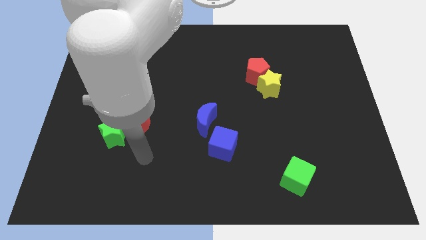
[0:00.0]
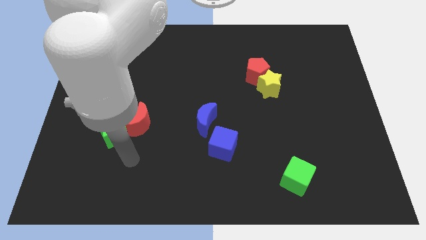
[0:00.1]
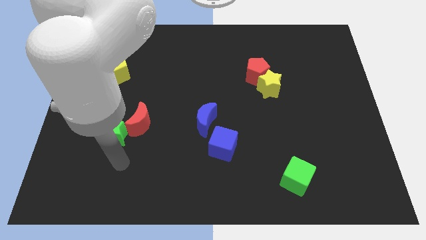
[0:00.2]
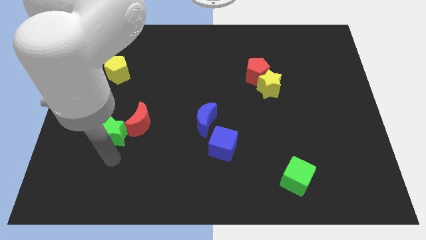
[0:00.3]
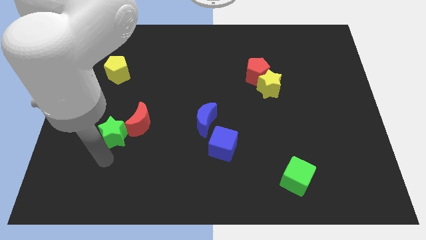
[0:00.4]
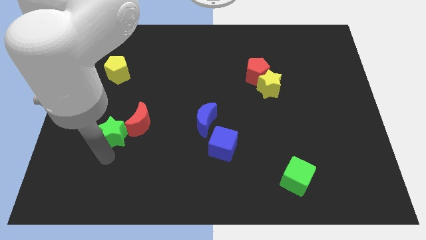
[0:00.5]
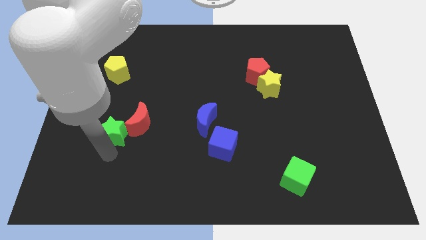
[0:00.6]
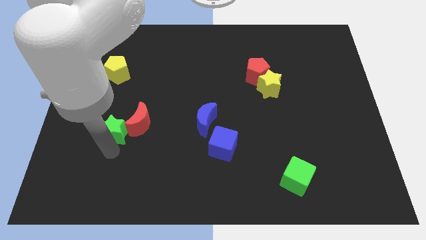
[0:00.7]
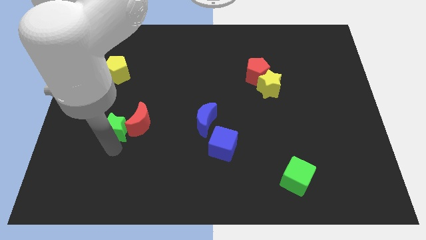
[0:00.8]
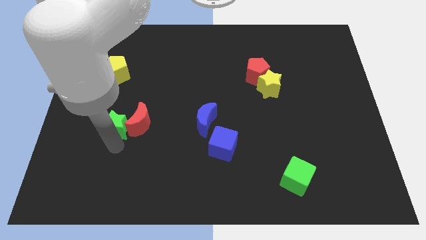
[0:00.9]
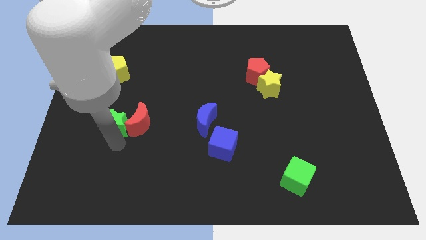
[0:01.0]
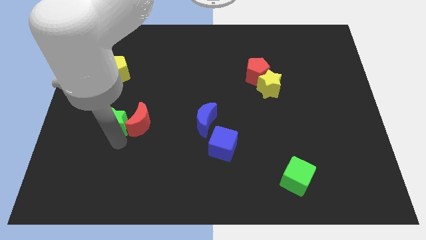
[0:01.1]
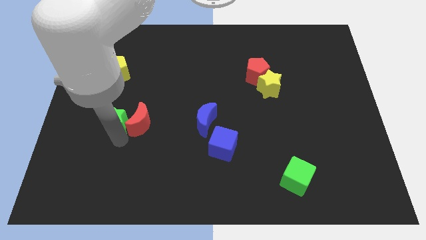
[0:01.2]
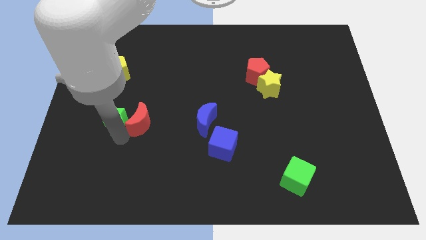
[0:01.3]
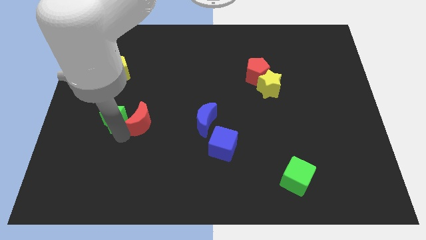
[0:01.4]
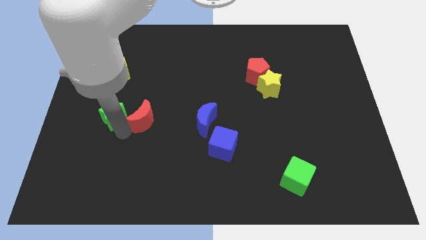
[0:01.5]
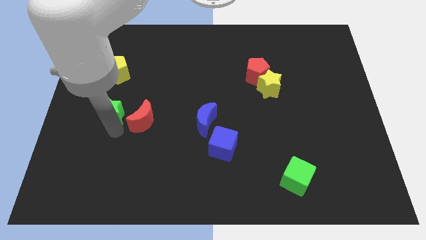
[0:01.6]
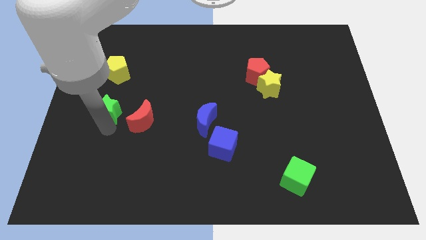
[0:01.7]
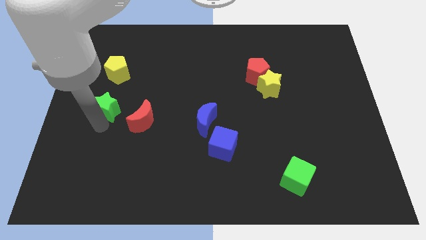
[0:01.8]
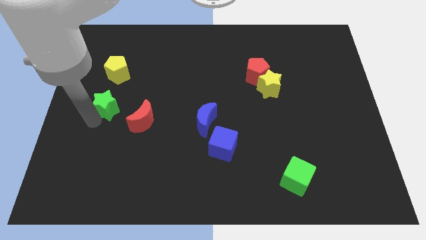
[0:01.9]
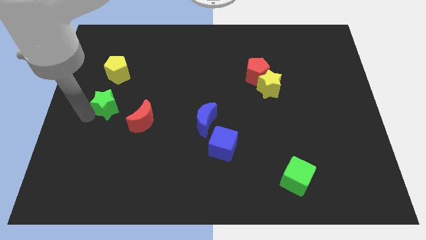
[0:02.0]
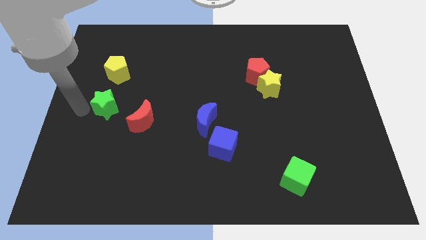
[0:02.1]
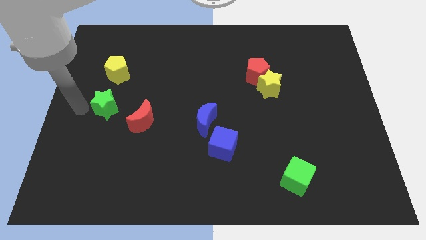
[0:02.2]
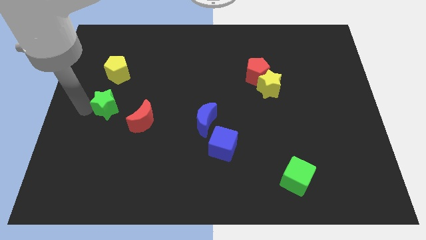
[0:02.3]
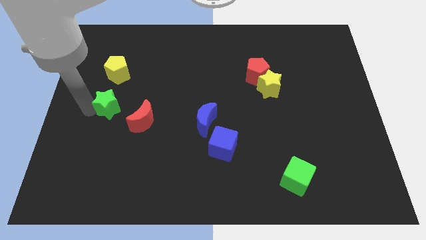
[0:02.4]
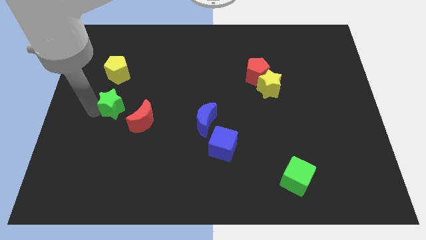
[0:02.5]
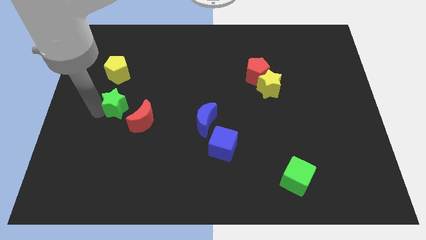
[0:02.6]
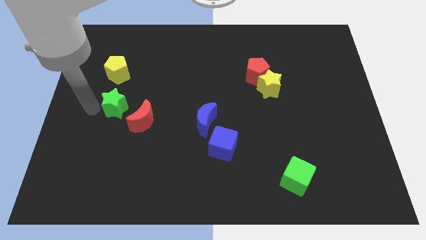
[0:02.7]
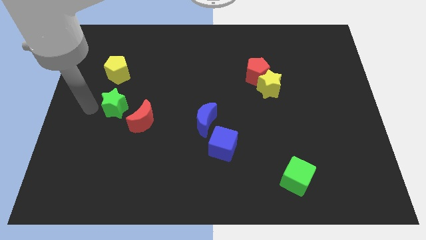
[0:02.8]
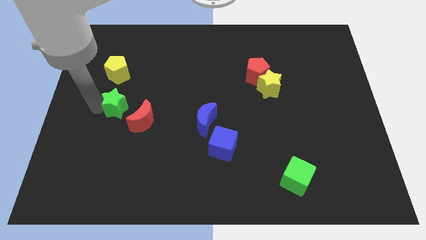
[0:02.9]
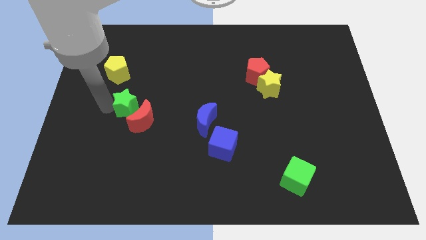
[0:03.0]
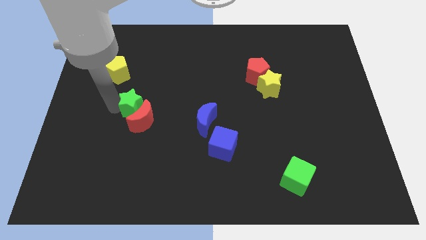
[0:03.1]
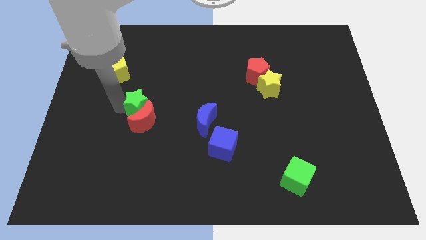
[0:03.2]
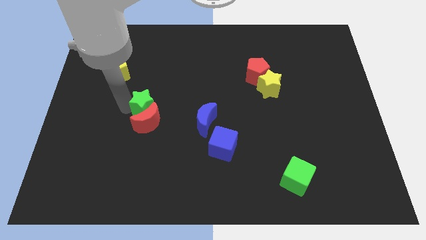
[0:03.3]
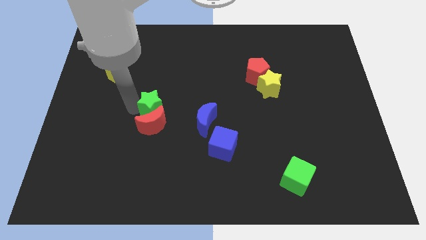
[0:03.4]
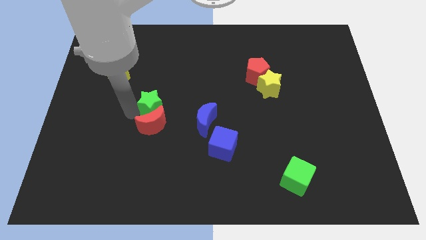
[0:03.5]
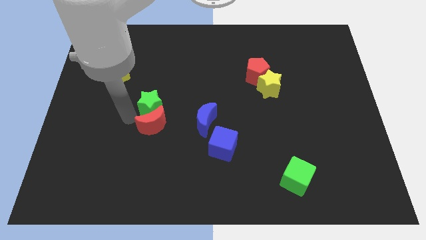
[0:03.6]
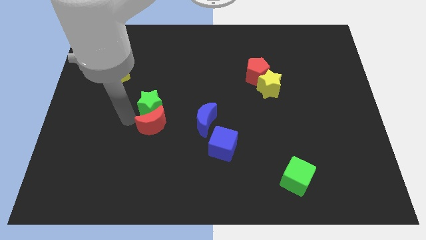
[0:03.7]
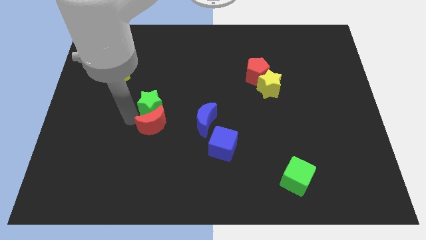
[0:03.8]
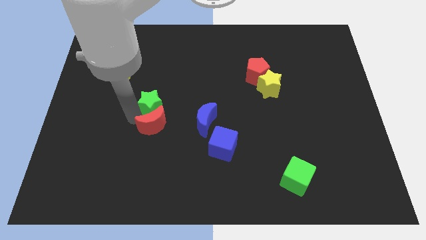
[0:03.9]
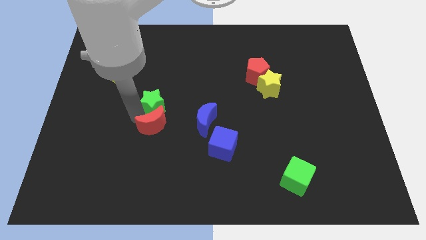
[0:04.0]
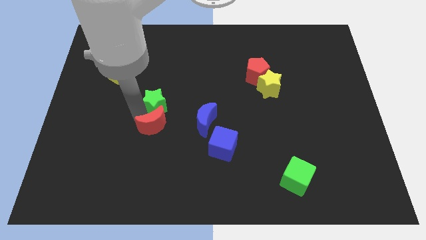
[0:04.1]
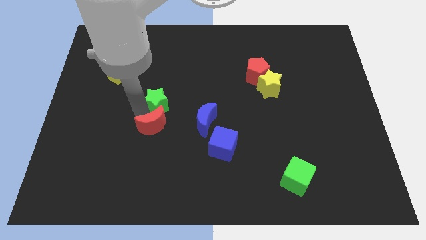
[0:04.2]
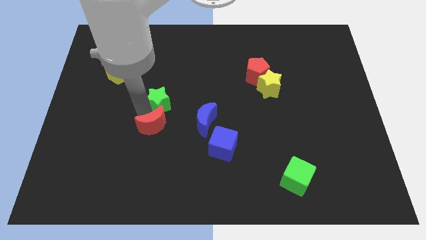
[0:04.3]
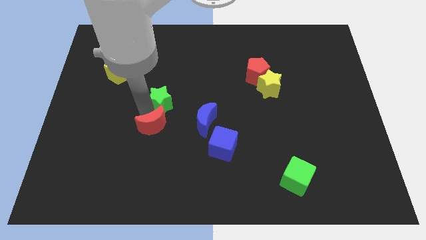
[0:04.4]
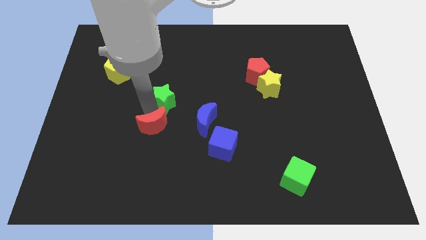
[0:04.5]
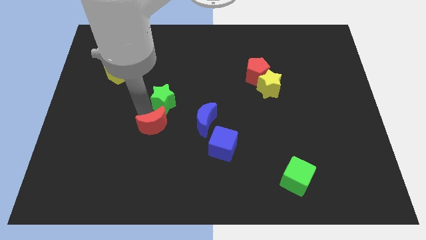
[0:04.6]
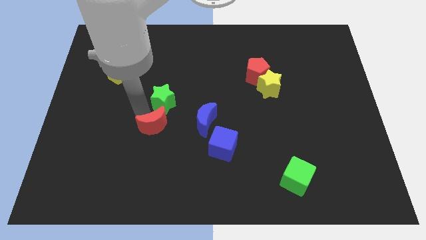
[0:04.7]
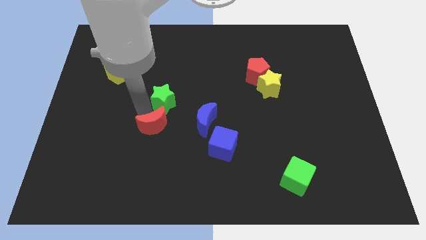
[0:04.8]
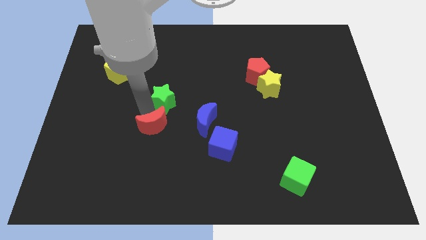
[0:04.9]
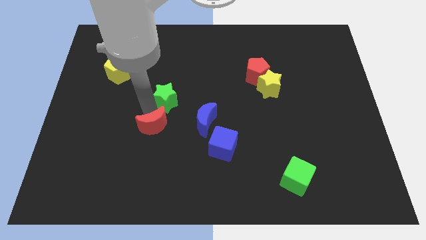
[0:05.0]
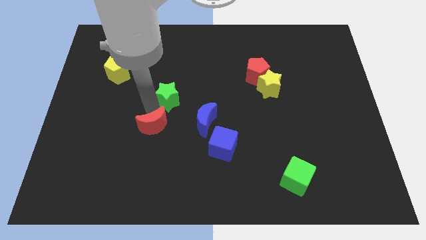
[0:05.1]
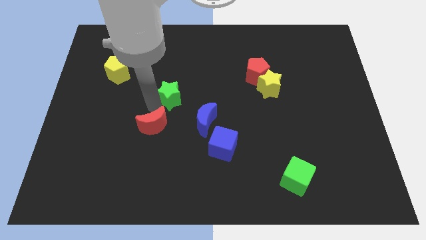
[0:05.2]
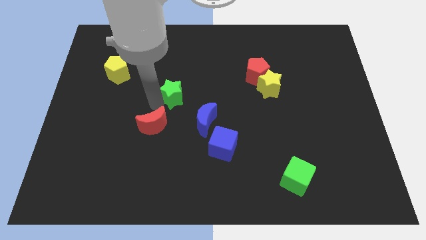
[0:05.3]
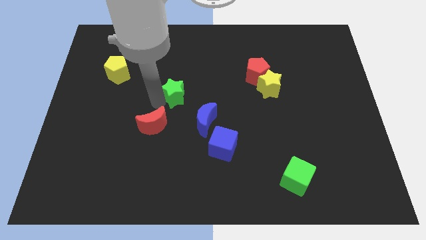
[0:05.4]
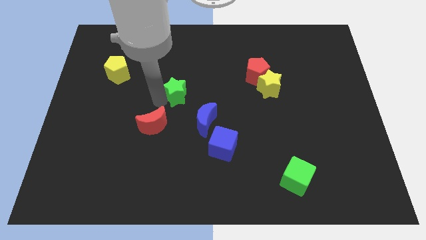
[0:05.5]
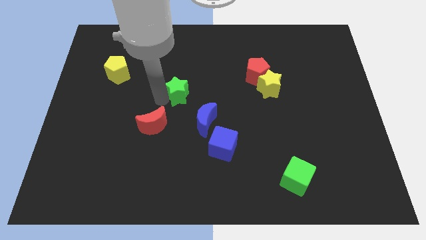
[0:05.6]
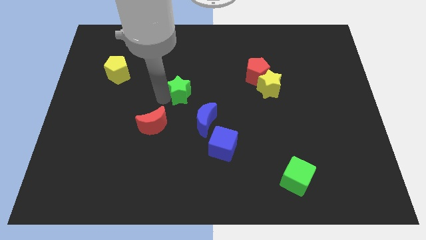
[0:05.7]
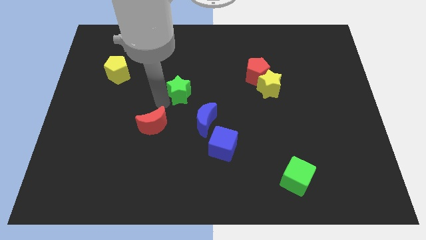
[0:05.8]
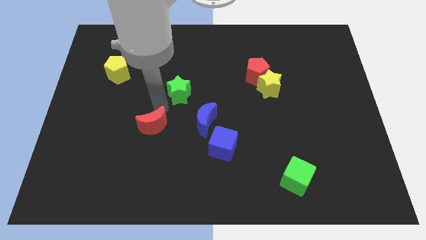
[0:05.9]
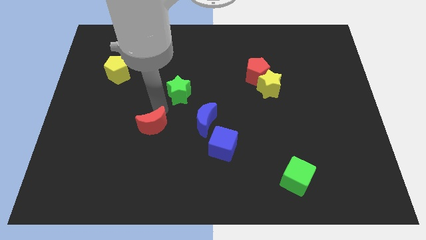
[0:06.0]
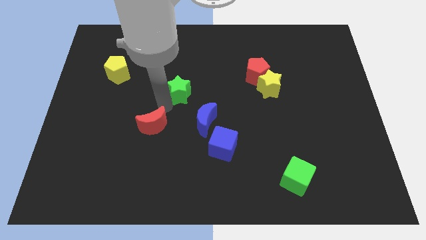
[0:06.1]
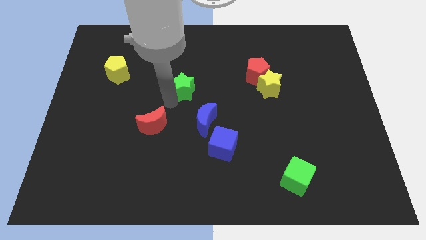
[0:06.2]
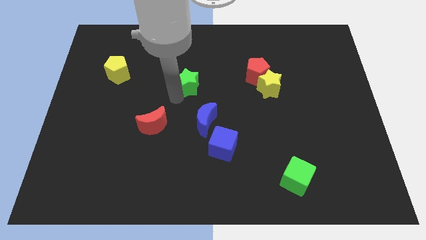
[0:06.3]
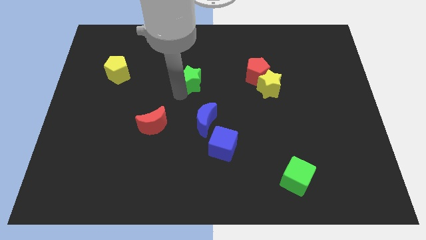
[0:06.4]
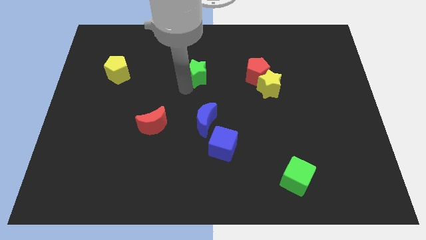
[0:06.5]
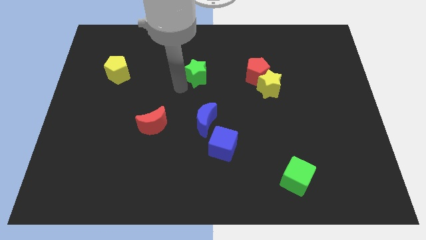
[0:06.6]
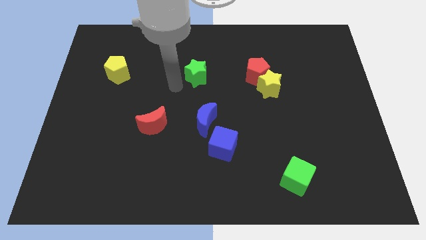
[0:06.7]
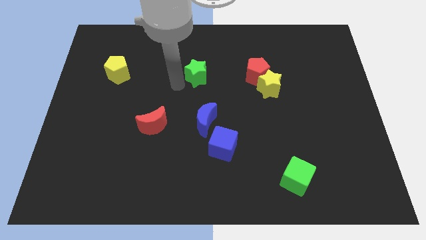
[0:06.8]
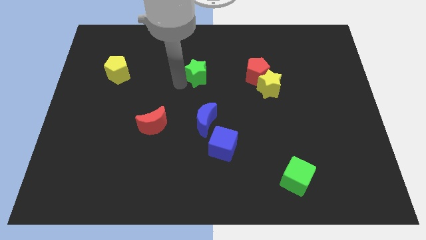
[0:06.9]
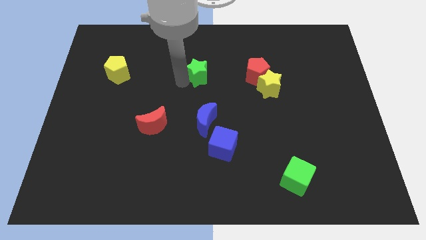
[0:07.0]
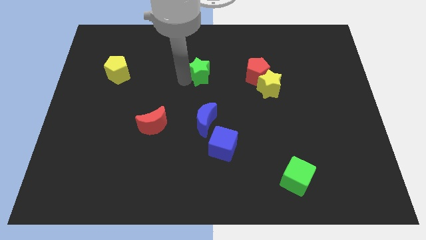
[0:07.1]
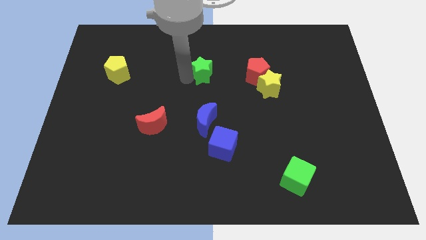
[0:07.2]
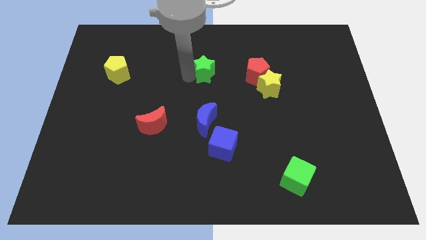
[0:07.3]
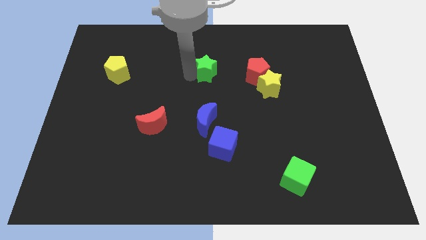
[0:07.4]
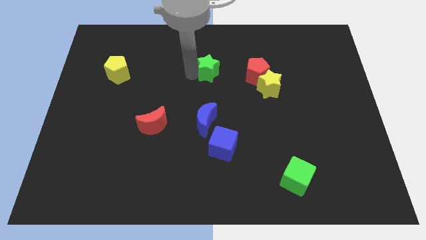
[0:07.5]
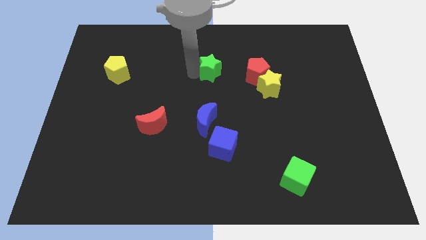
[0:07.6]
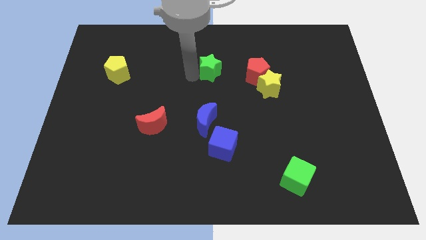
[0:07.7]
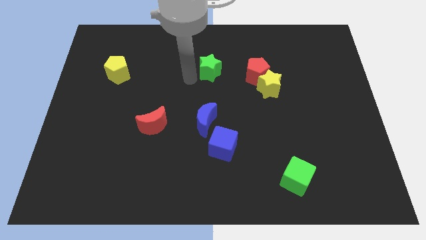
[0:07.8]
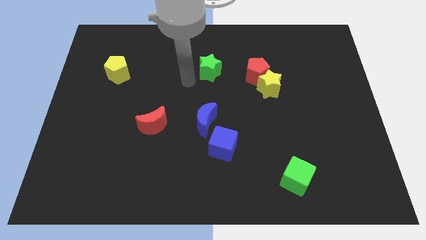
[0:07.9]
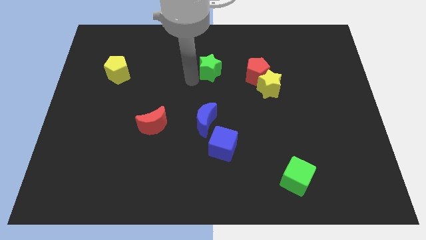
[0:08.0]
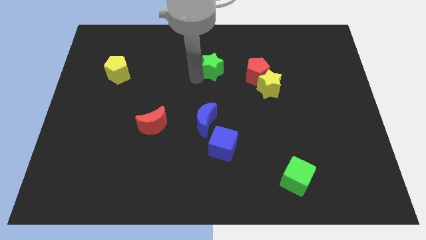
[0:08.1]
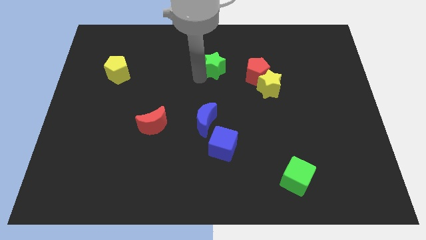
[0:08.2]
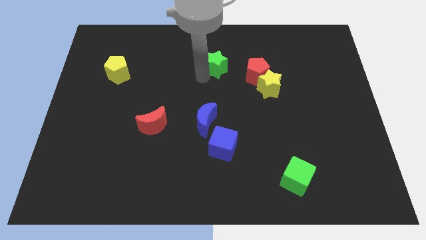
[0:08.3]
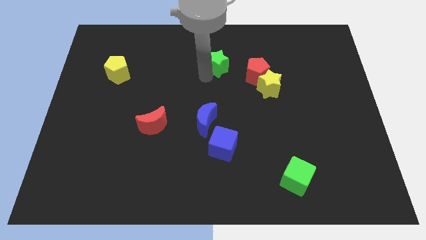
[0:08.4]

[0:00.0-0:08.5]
put the green star to the top left side of the red pentagon
